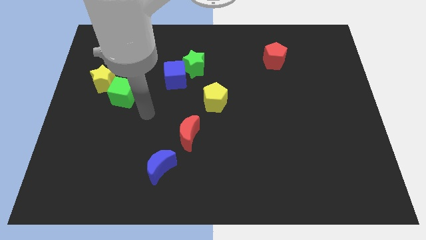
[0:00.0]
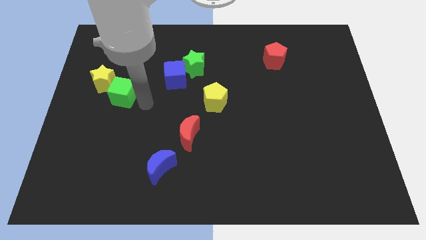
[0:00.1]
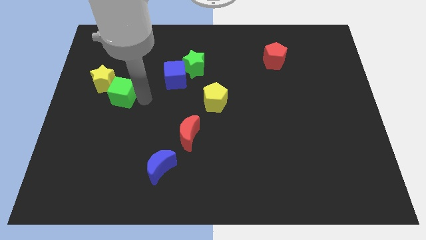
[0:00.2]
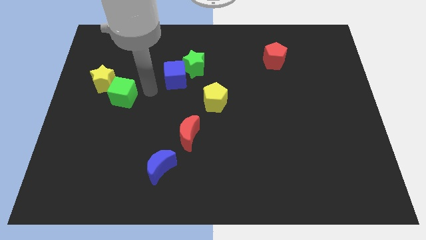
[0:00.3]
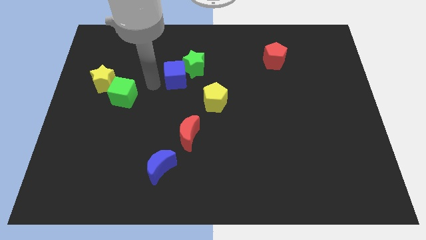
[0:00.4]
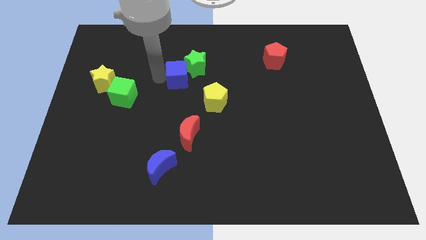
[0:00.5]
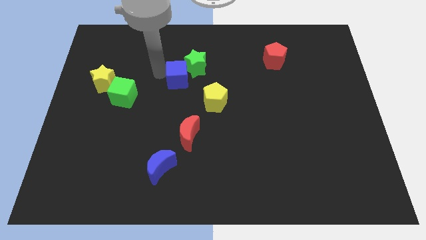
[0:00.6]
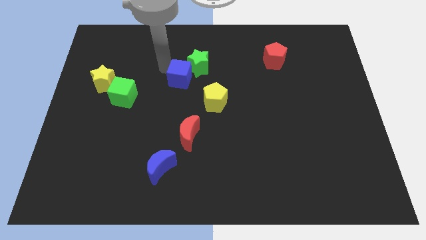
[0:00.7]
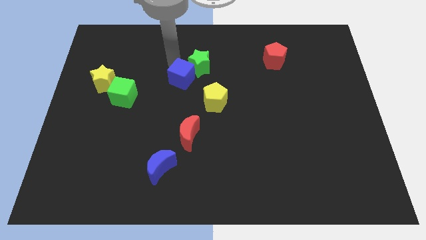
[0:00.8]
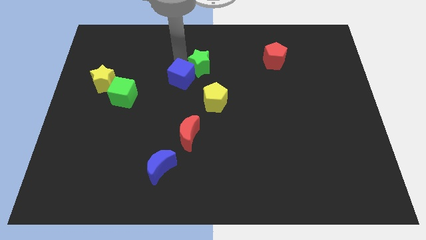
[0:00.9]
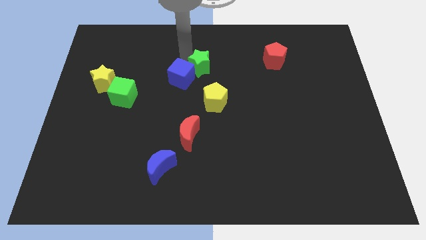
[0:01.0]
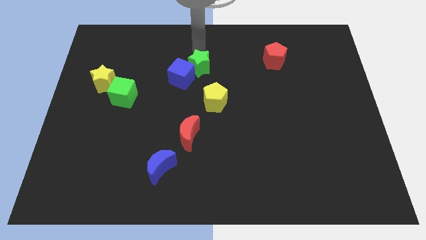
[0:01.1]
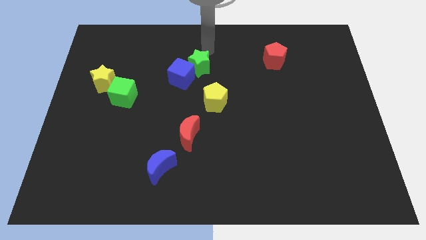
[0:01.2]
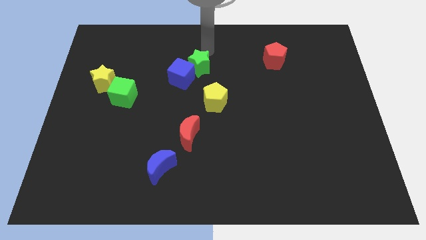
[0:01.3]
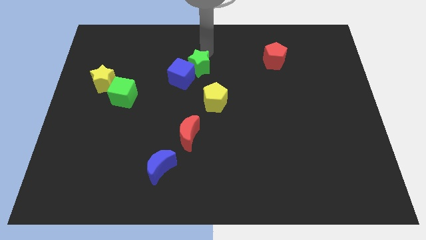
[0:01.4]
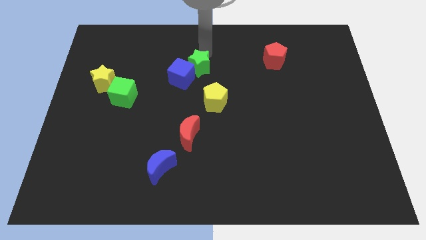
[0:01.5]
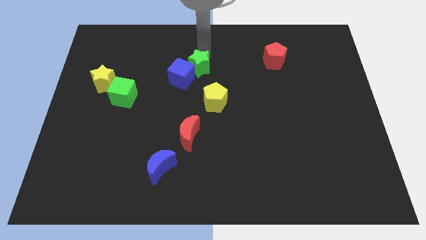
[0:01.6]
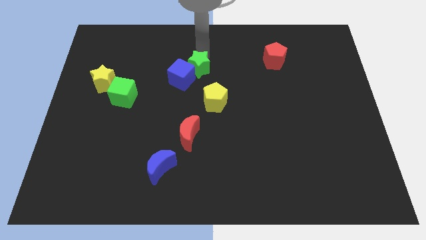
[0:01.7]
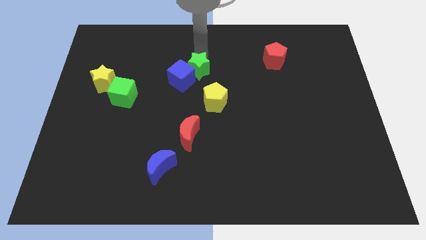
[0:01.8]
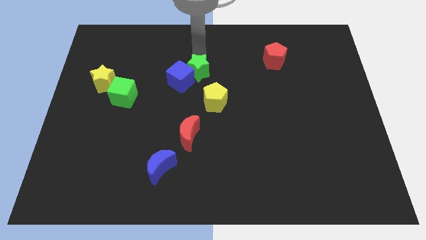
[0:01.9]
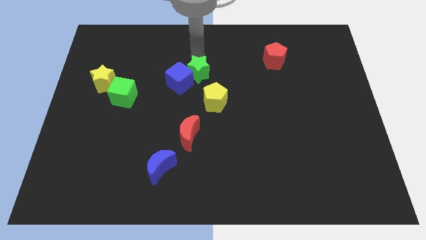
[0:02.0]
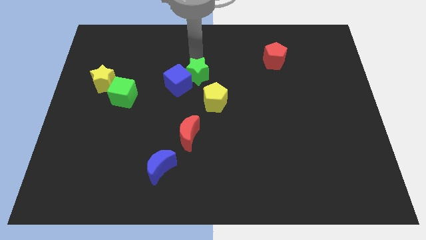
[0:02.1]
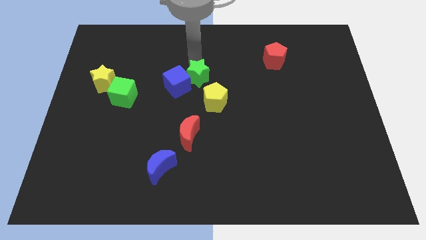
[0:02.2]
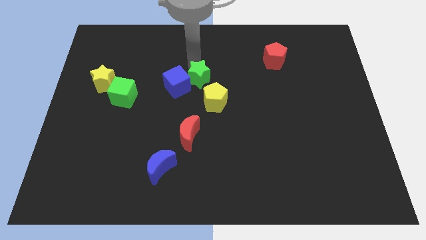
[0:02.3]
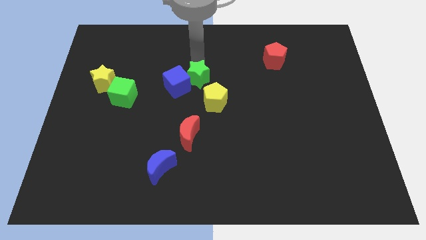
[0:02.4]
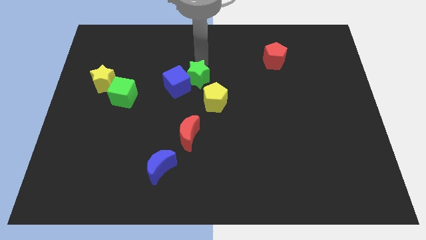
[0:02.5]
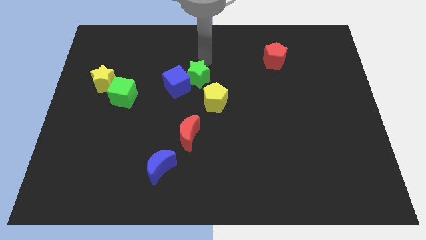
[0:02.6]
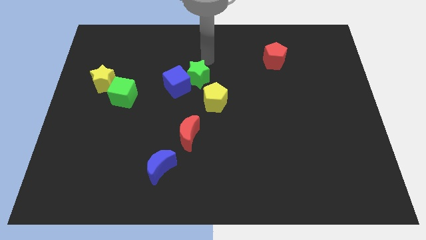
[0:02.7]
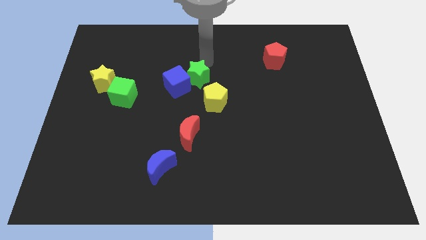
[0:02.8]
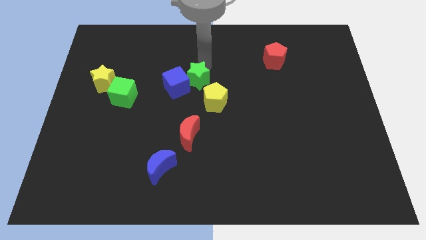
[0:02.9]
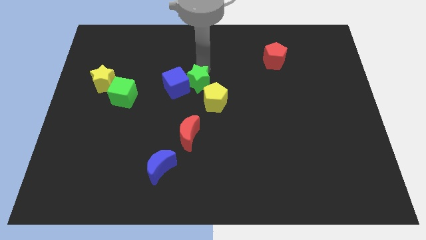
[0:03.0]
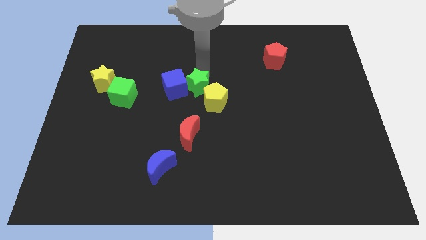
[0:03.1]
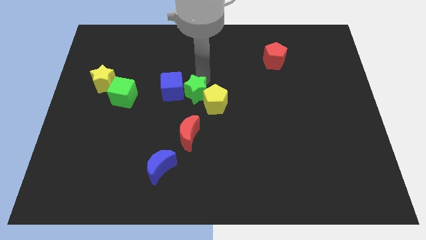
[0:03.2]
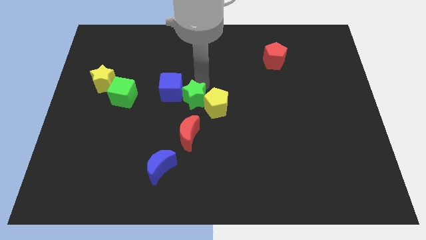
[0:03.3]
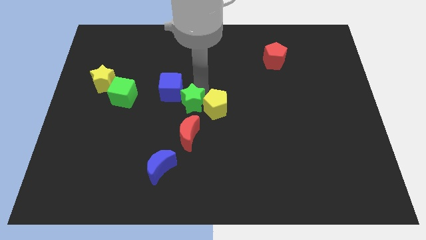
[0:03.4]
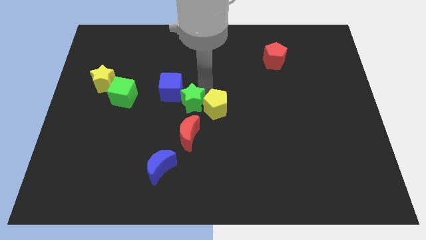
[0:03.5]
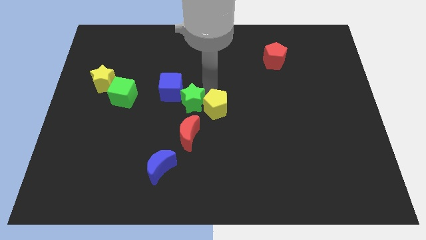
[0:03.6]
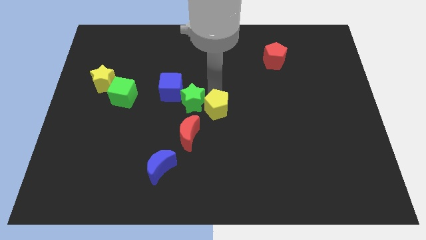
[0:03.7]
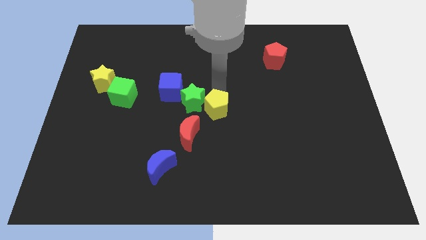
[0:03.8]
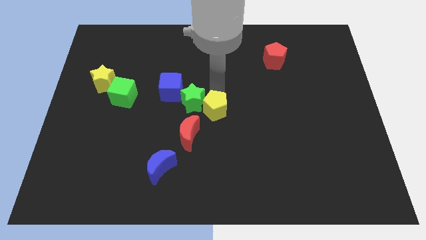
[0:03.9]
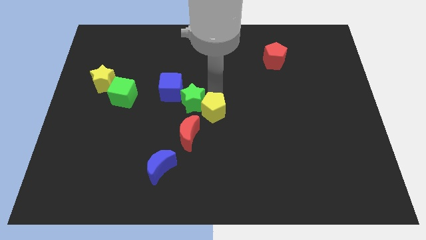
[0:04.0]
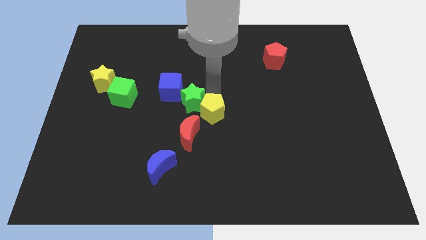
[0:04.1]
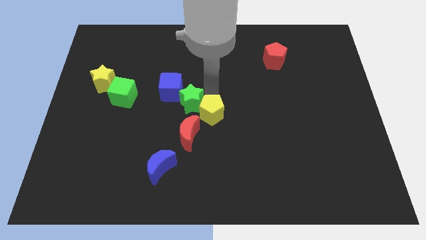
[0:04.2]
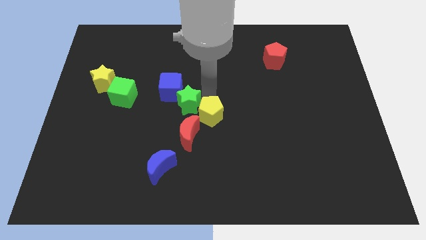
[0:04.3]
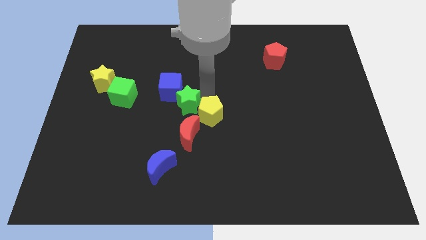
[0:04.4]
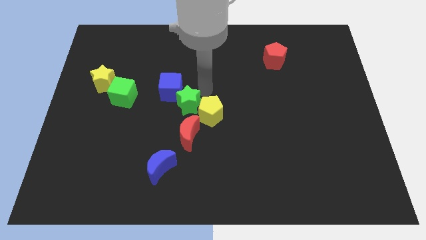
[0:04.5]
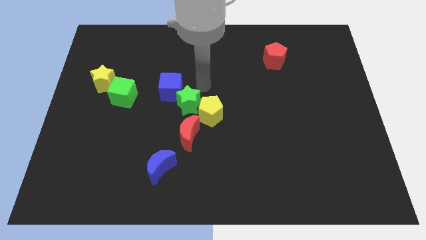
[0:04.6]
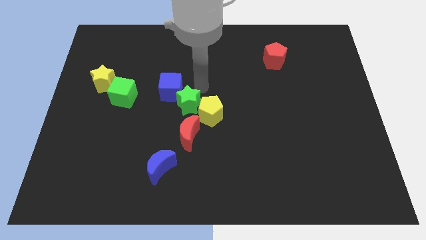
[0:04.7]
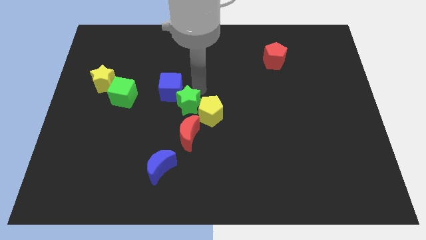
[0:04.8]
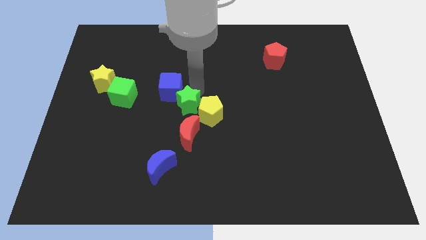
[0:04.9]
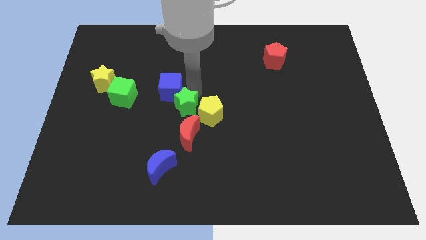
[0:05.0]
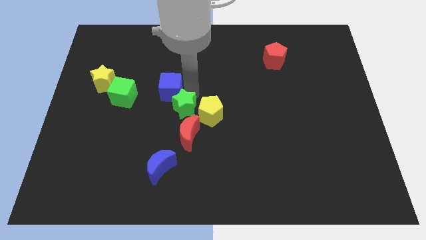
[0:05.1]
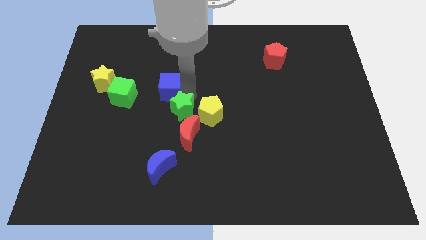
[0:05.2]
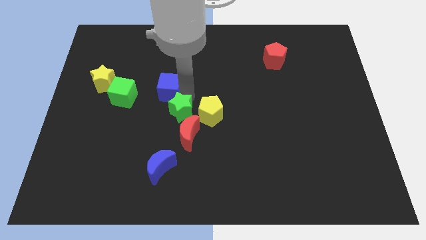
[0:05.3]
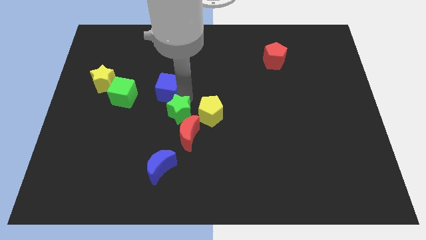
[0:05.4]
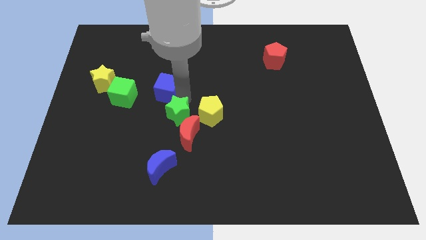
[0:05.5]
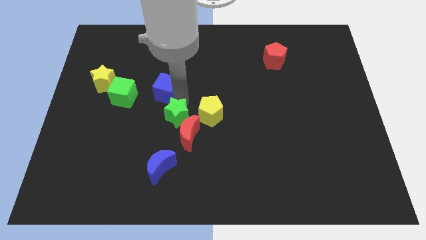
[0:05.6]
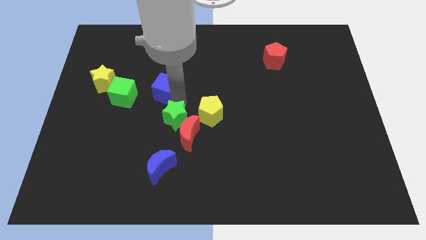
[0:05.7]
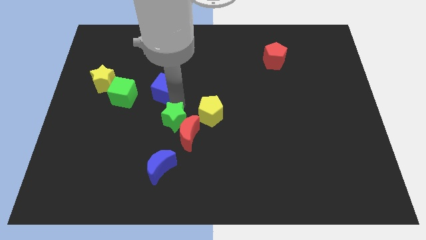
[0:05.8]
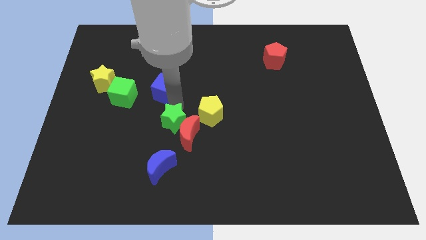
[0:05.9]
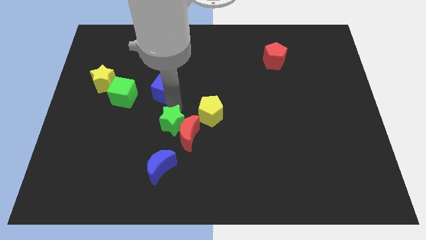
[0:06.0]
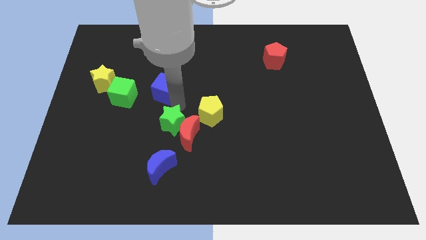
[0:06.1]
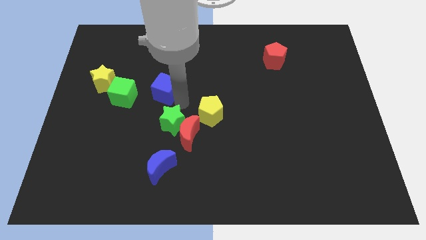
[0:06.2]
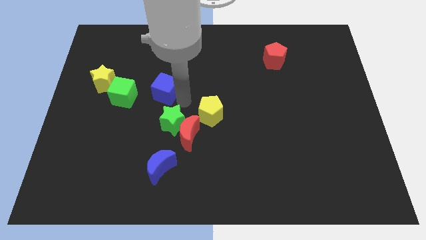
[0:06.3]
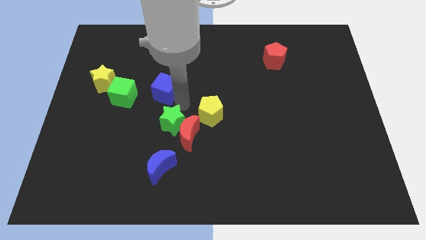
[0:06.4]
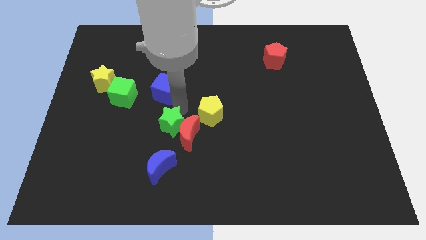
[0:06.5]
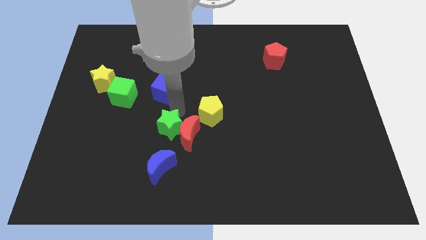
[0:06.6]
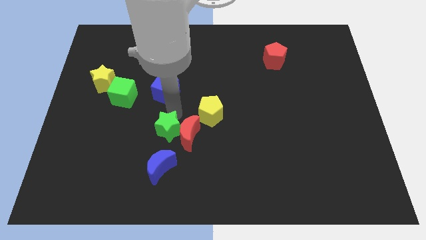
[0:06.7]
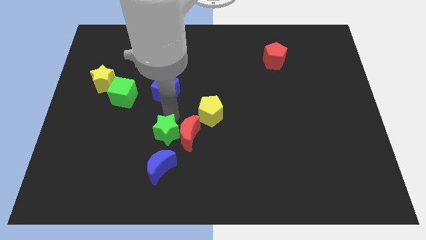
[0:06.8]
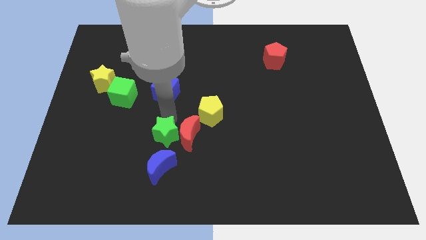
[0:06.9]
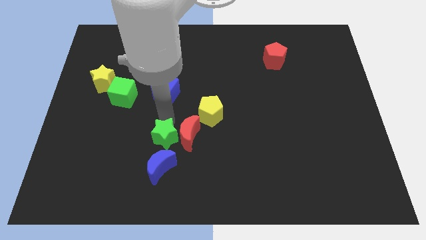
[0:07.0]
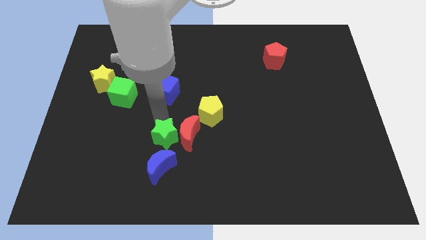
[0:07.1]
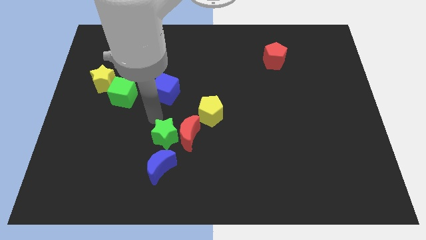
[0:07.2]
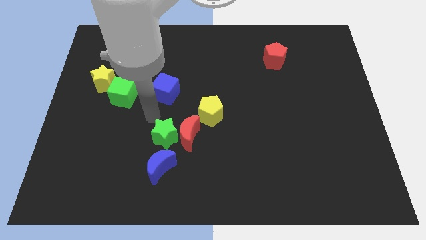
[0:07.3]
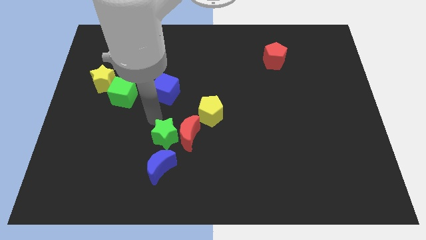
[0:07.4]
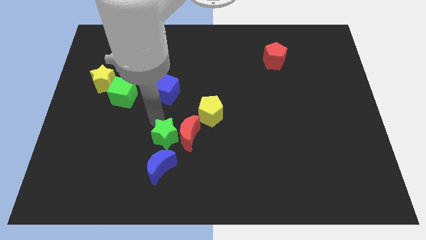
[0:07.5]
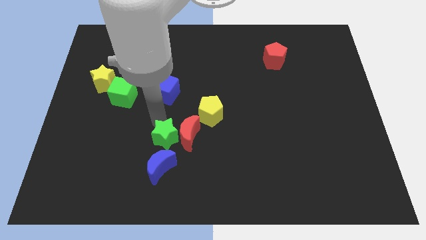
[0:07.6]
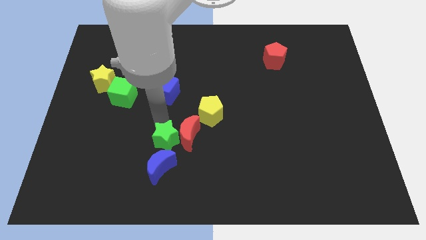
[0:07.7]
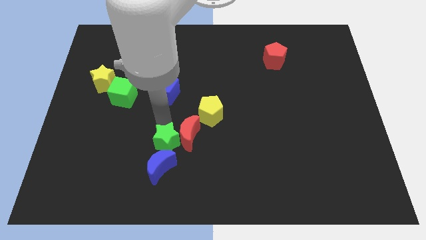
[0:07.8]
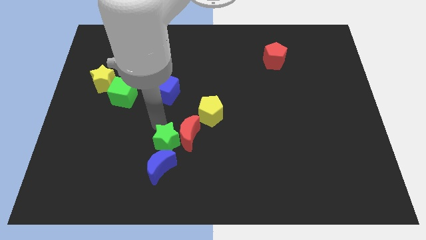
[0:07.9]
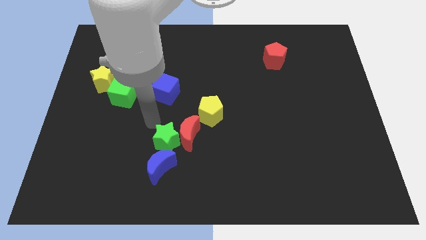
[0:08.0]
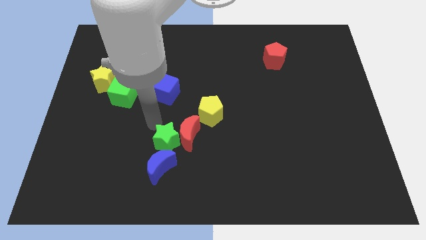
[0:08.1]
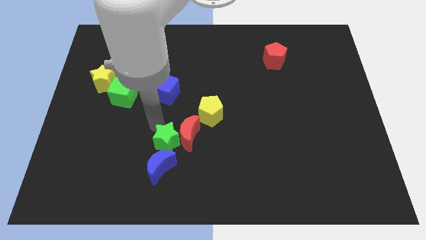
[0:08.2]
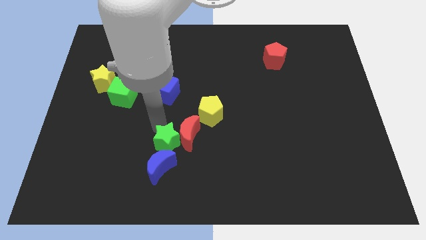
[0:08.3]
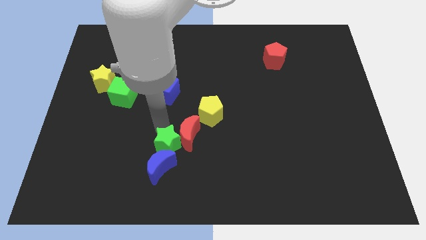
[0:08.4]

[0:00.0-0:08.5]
move the green star to the bottom side of the red moon
